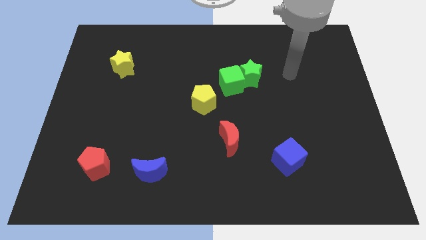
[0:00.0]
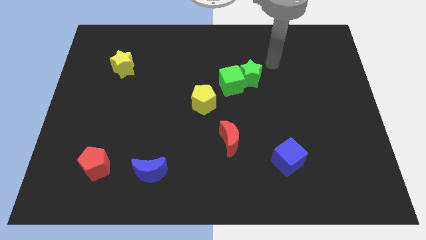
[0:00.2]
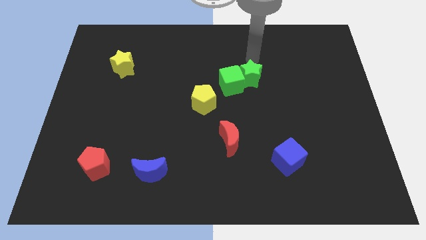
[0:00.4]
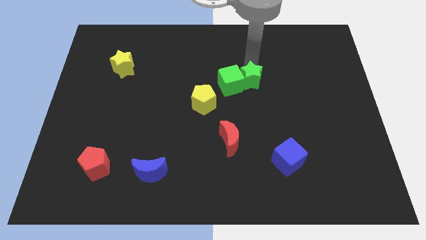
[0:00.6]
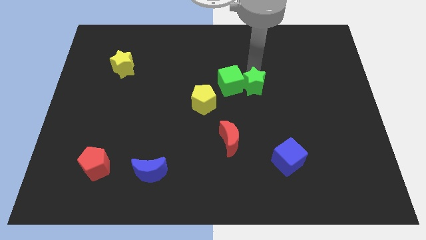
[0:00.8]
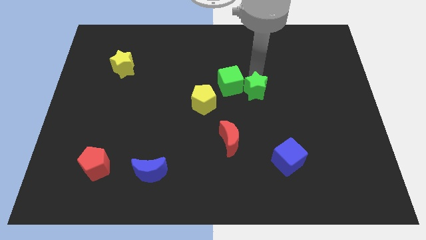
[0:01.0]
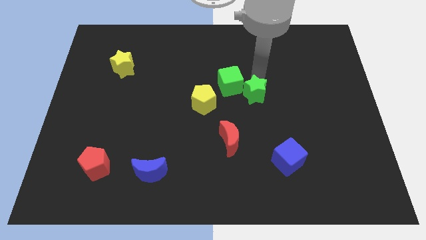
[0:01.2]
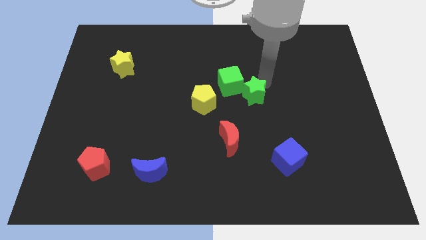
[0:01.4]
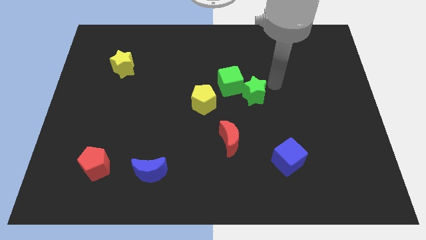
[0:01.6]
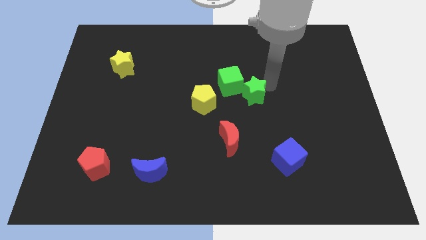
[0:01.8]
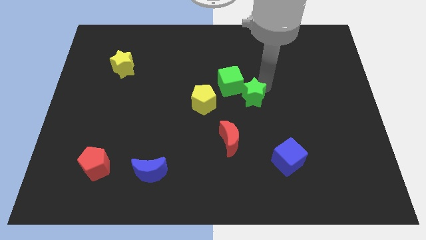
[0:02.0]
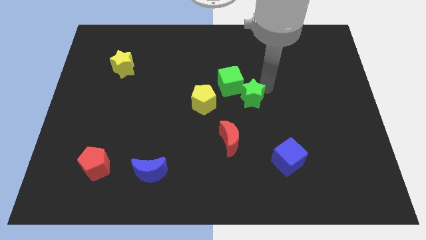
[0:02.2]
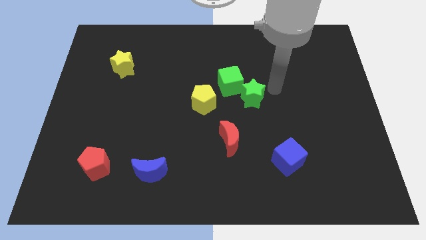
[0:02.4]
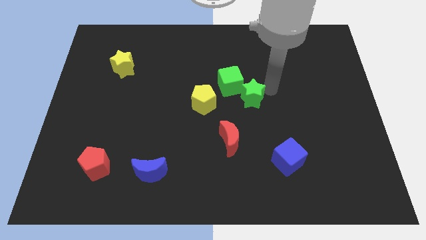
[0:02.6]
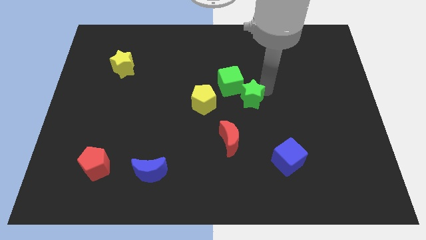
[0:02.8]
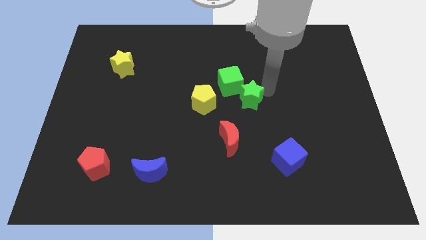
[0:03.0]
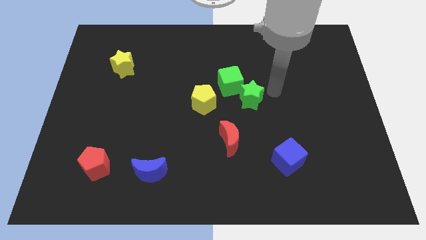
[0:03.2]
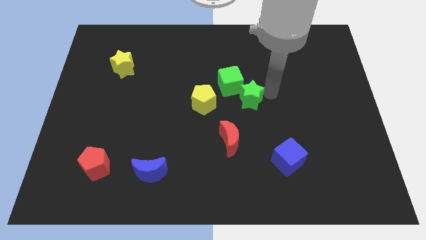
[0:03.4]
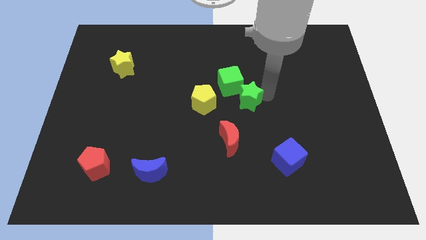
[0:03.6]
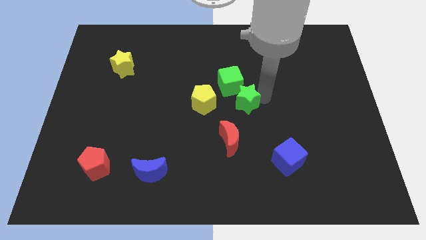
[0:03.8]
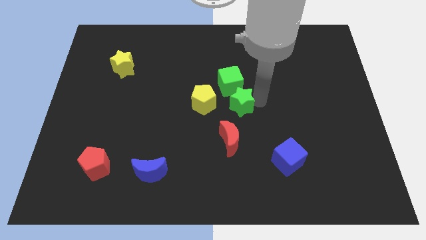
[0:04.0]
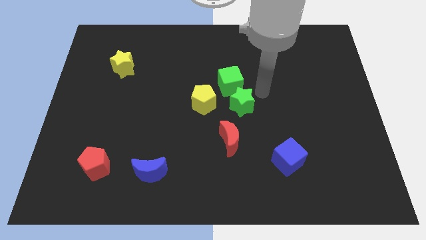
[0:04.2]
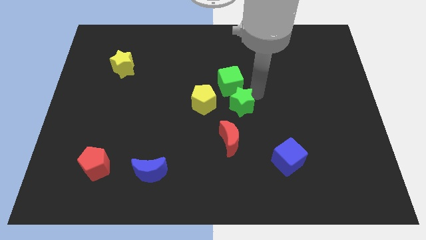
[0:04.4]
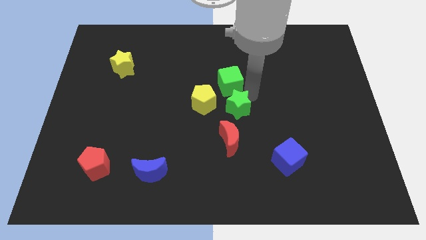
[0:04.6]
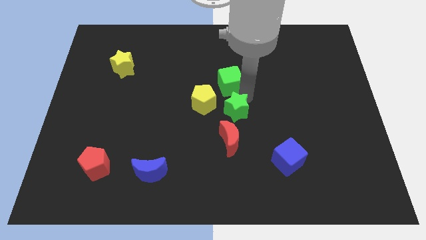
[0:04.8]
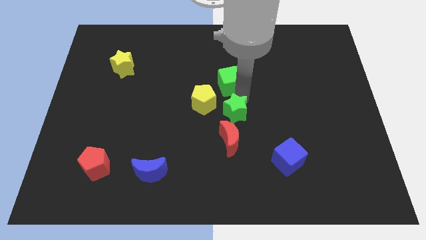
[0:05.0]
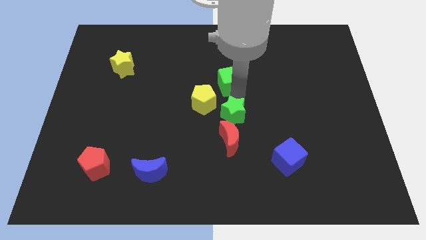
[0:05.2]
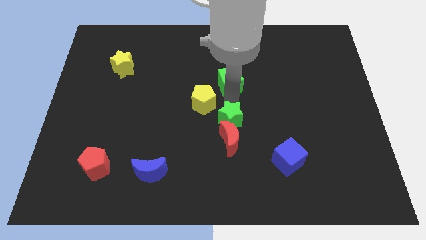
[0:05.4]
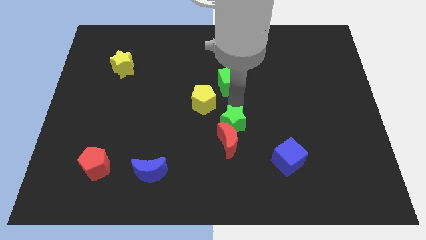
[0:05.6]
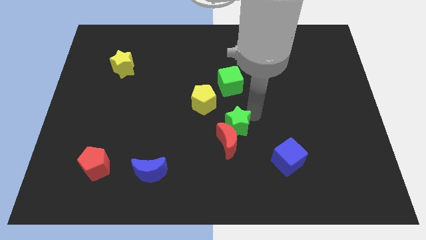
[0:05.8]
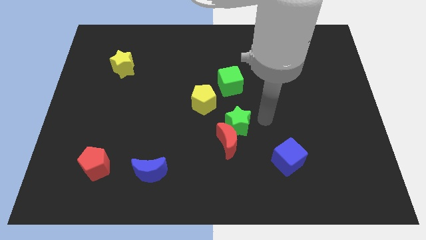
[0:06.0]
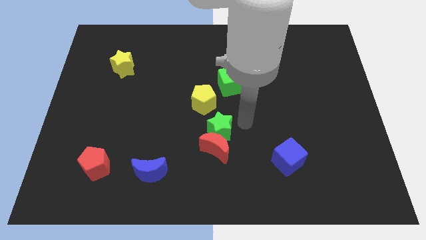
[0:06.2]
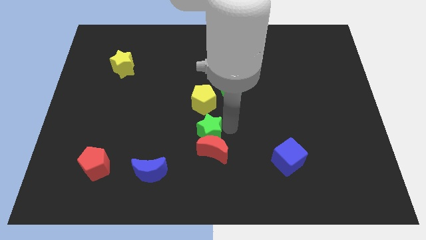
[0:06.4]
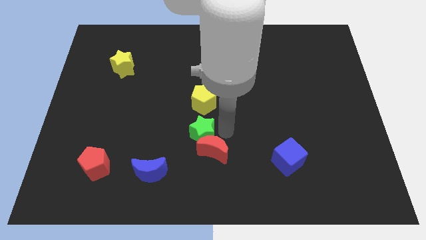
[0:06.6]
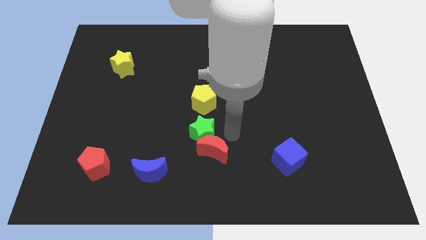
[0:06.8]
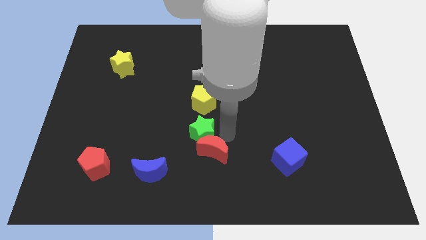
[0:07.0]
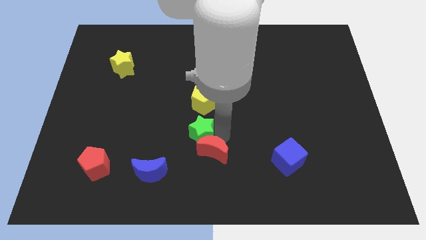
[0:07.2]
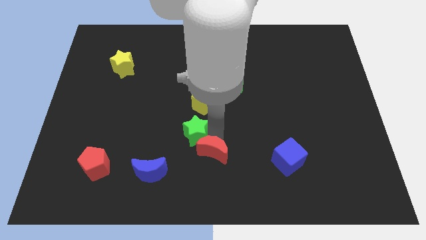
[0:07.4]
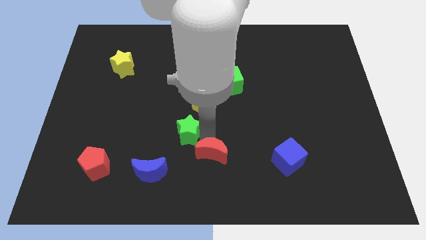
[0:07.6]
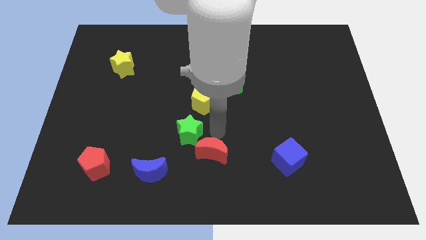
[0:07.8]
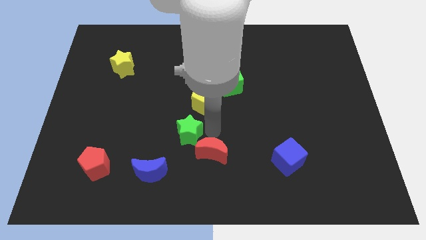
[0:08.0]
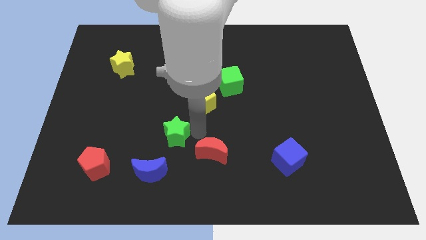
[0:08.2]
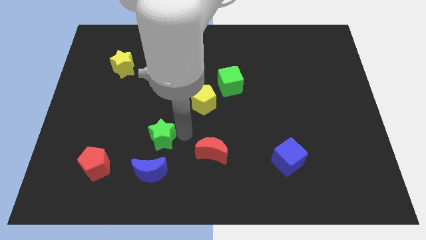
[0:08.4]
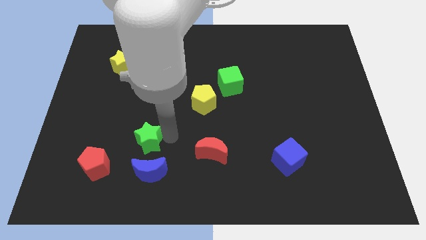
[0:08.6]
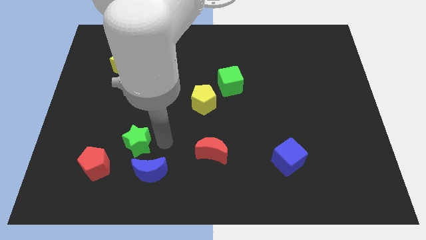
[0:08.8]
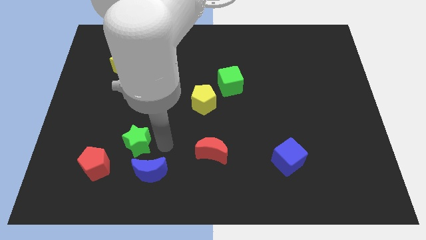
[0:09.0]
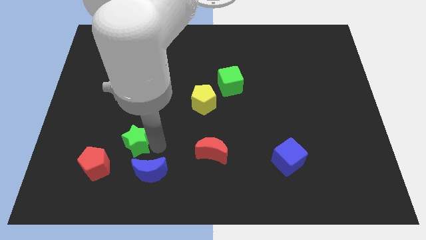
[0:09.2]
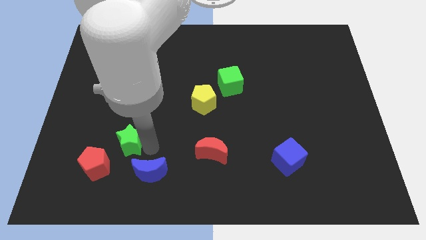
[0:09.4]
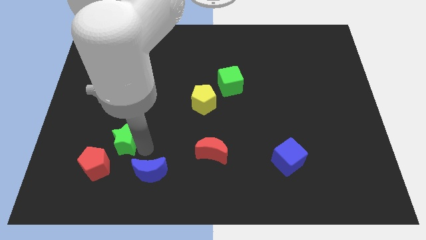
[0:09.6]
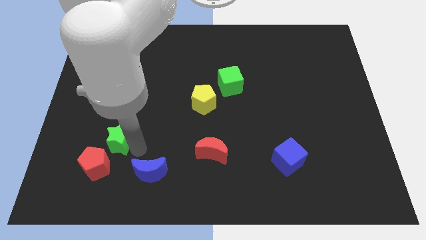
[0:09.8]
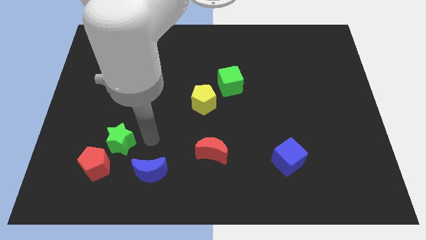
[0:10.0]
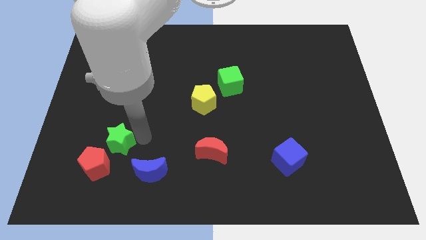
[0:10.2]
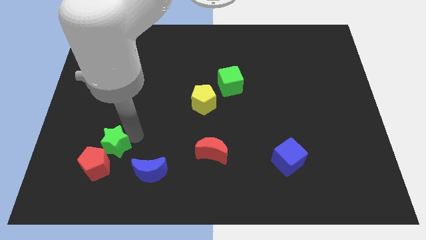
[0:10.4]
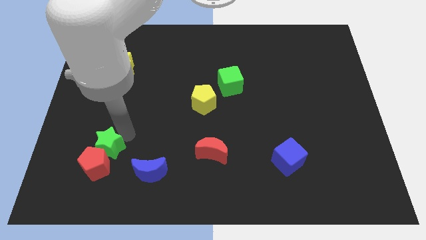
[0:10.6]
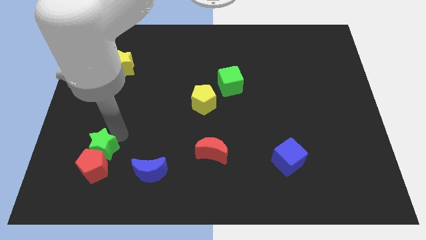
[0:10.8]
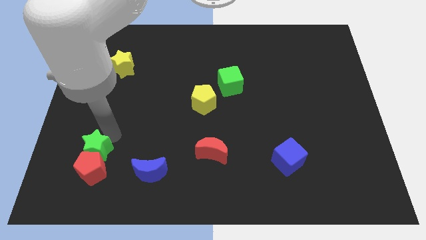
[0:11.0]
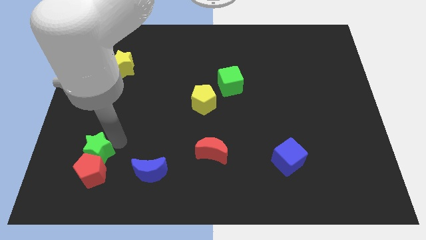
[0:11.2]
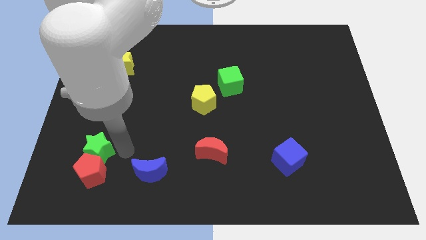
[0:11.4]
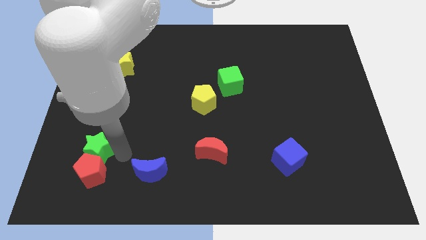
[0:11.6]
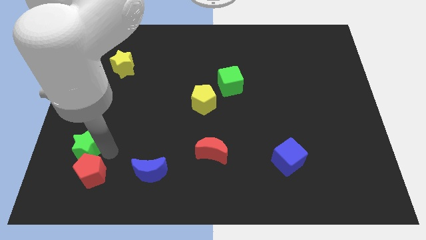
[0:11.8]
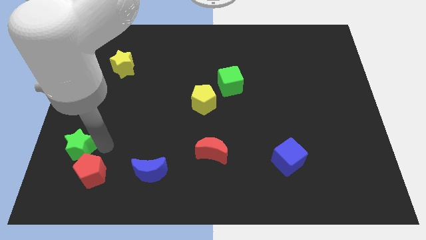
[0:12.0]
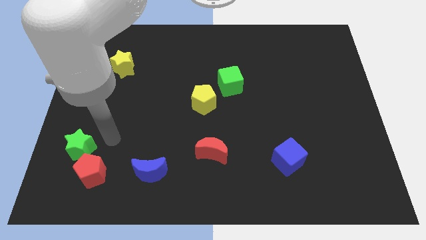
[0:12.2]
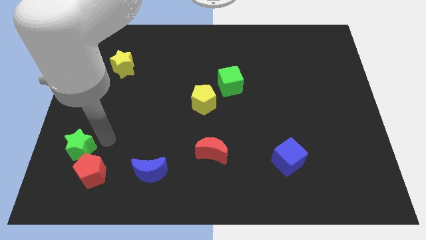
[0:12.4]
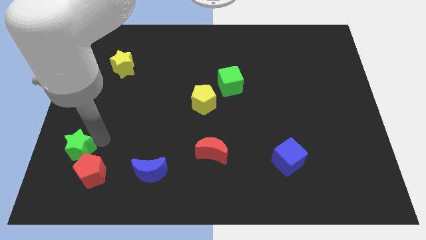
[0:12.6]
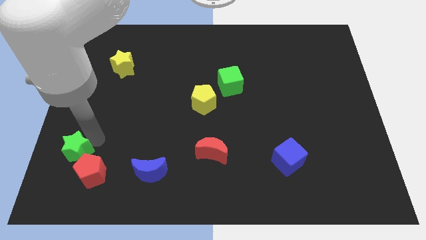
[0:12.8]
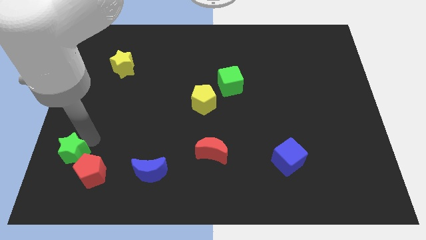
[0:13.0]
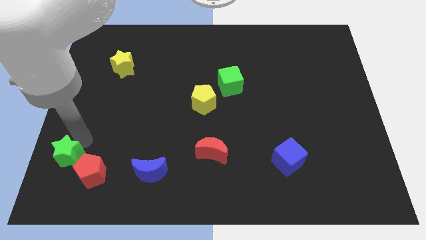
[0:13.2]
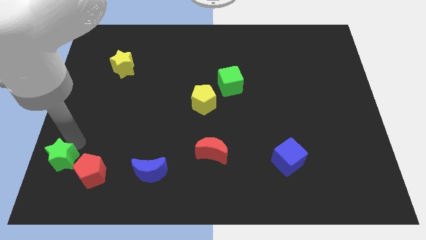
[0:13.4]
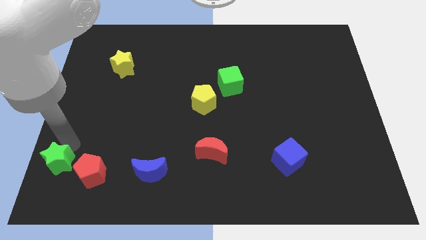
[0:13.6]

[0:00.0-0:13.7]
move the green star to the lower left corner
